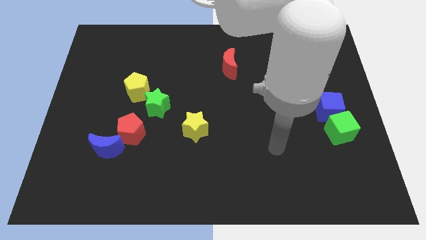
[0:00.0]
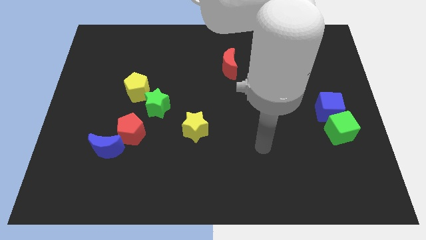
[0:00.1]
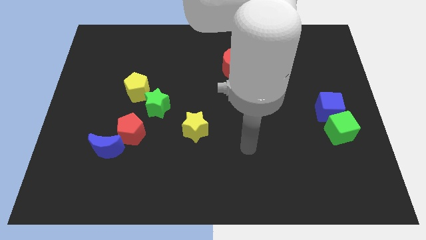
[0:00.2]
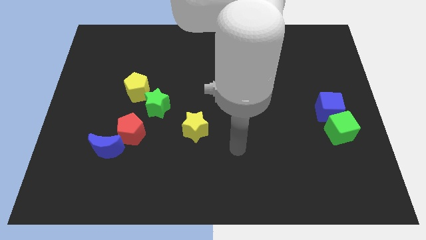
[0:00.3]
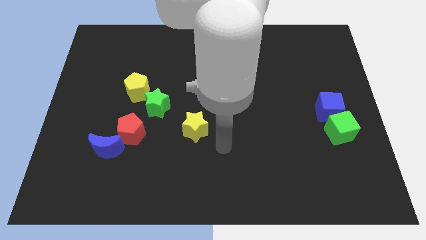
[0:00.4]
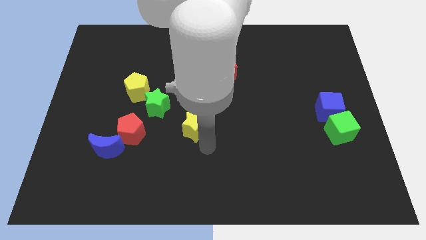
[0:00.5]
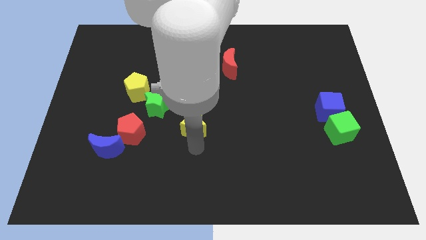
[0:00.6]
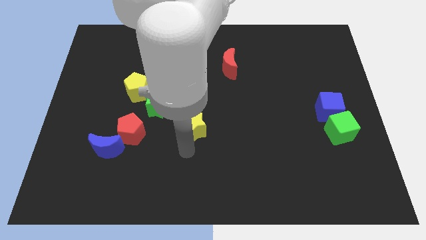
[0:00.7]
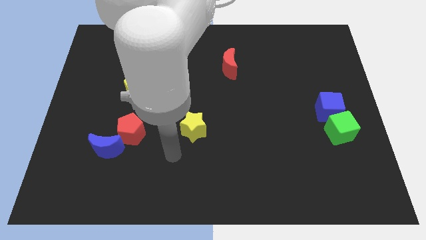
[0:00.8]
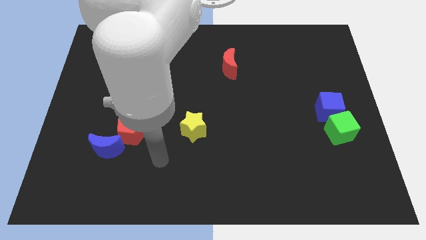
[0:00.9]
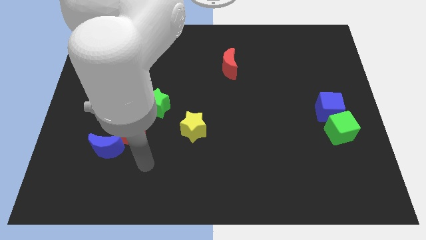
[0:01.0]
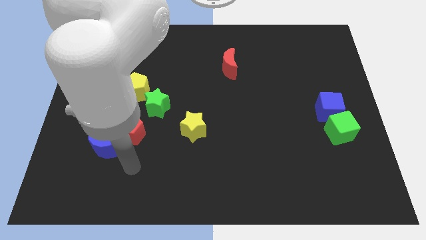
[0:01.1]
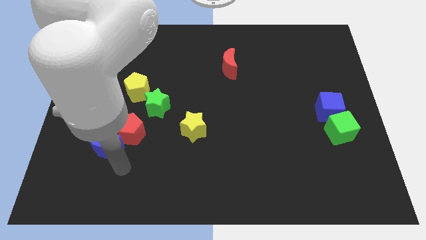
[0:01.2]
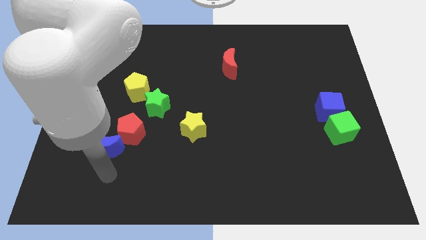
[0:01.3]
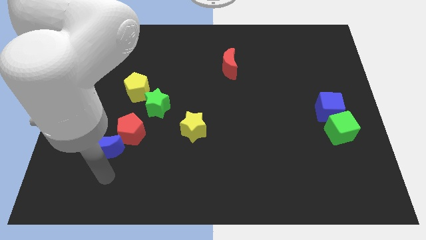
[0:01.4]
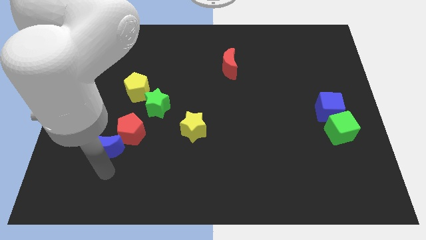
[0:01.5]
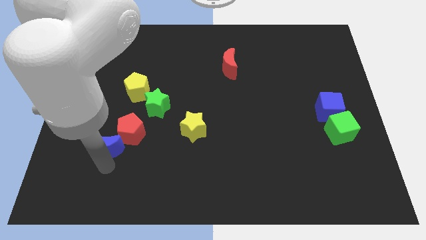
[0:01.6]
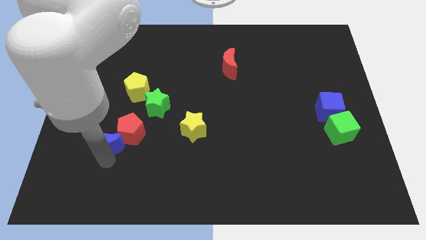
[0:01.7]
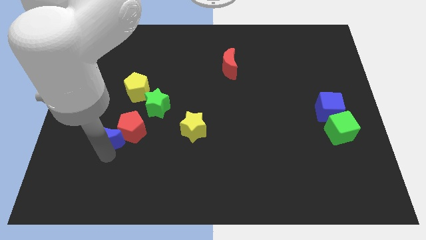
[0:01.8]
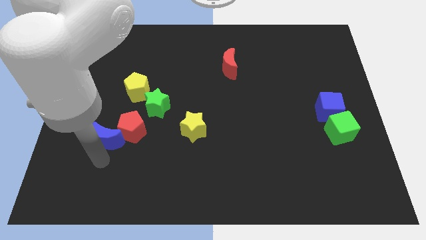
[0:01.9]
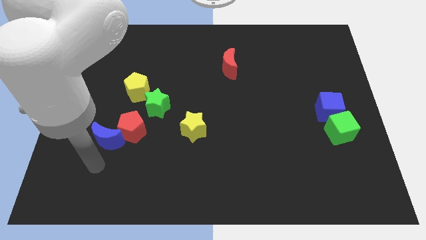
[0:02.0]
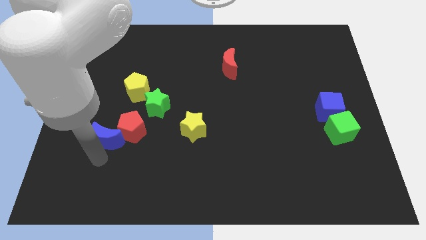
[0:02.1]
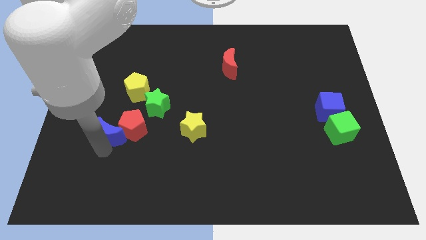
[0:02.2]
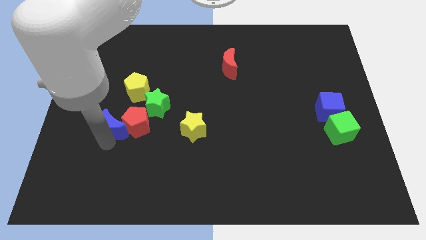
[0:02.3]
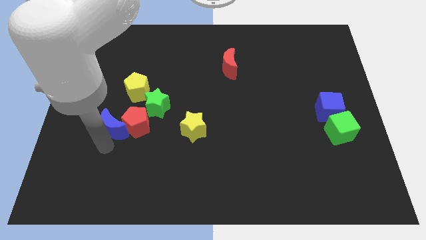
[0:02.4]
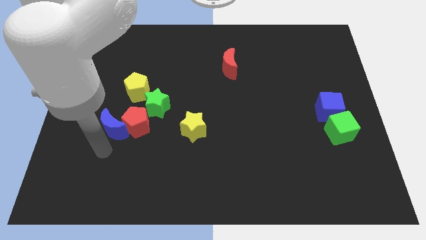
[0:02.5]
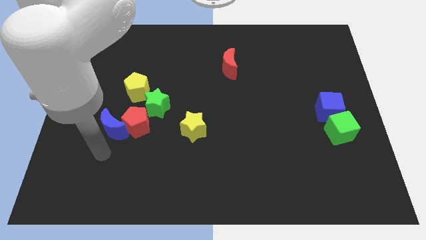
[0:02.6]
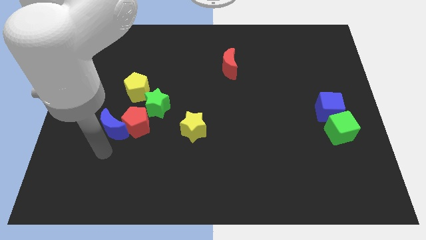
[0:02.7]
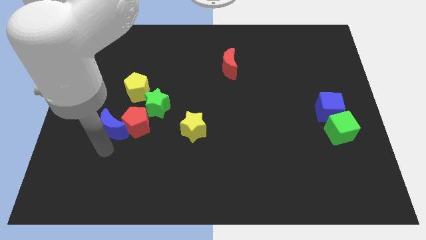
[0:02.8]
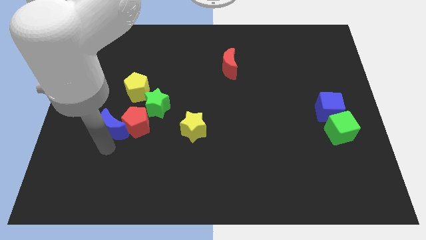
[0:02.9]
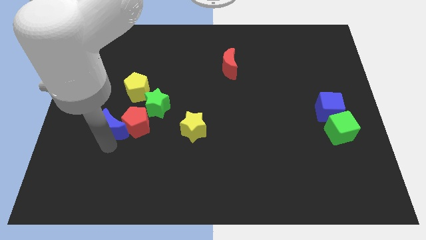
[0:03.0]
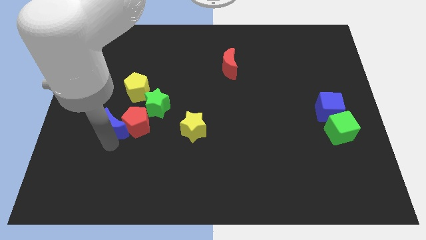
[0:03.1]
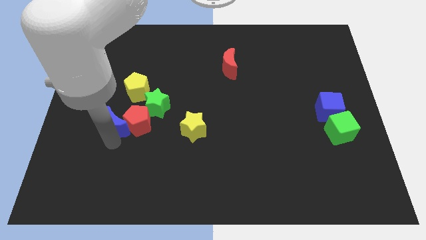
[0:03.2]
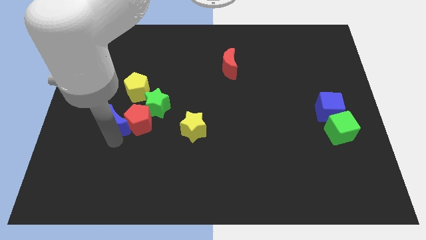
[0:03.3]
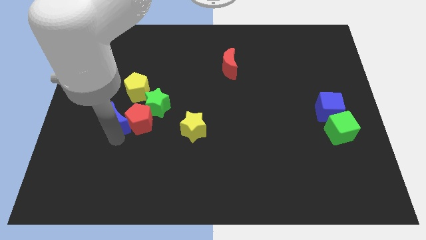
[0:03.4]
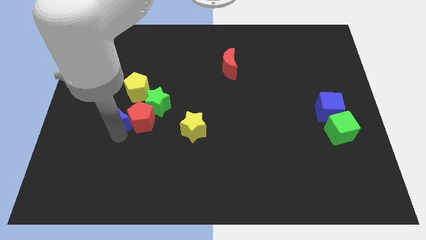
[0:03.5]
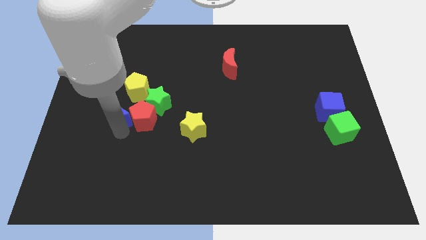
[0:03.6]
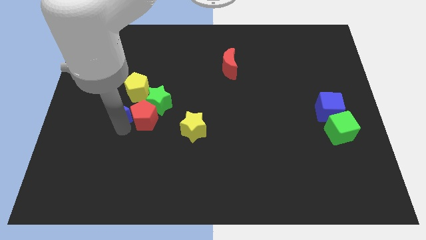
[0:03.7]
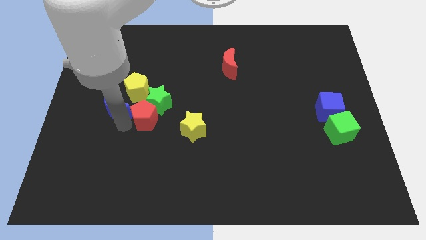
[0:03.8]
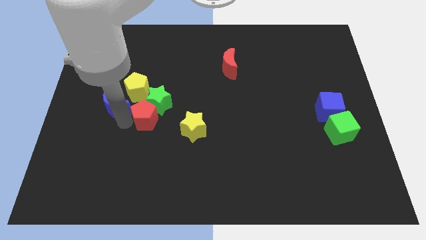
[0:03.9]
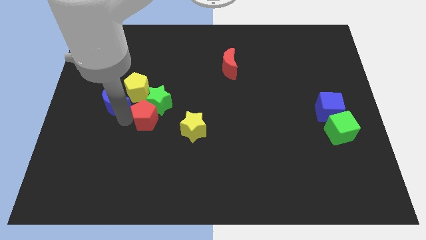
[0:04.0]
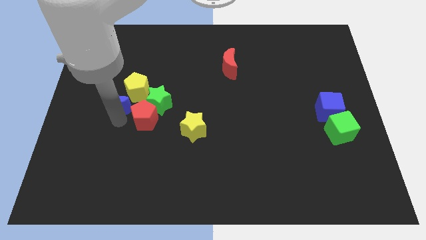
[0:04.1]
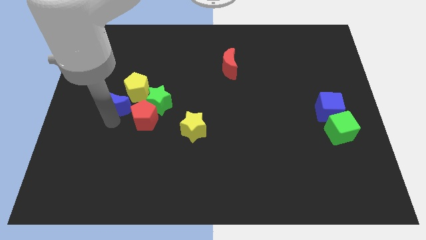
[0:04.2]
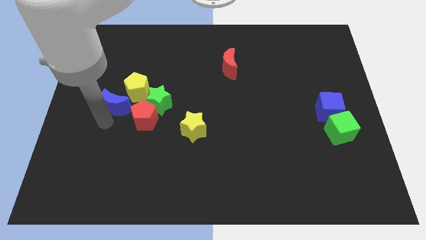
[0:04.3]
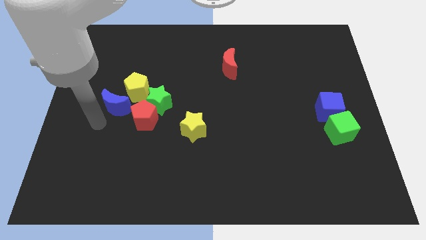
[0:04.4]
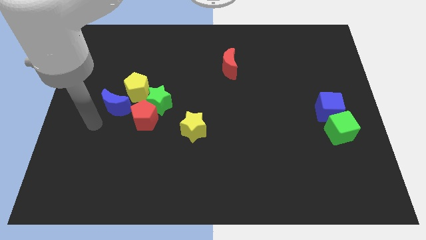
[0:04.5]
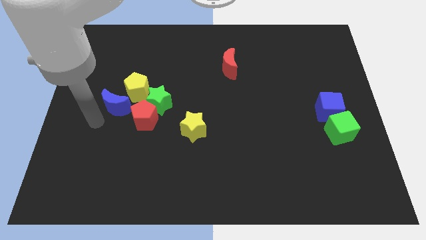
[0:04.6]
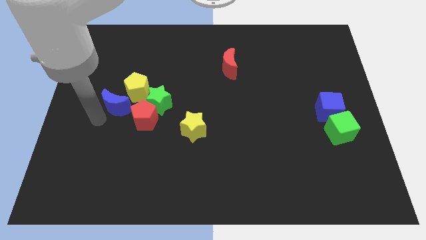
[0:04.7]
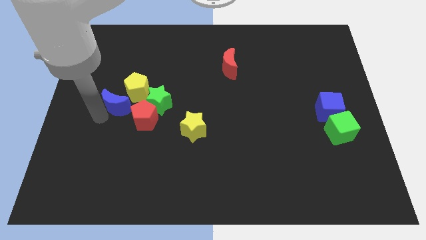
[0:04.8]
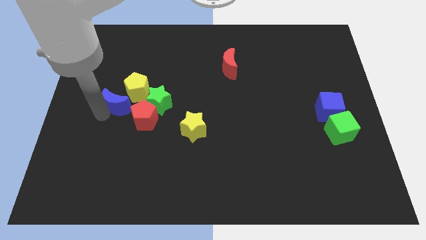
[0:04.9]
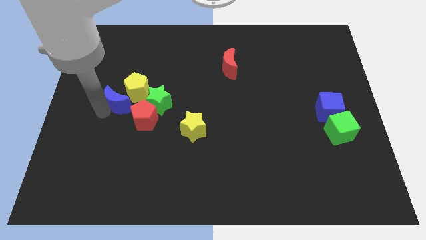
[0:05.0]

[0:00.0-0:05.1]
put the blue moon towards the yellow pentagon

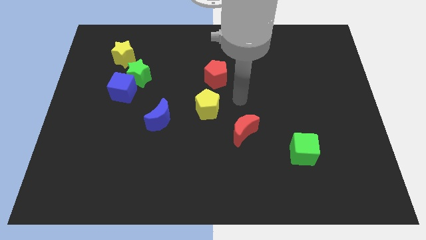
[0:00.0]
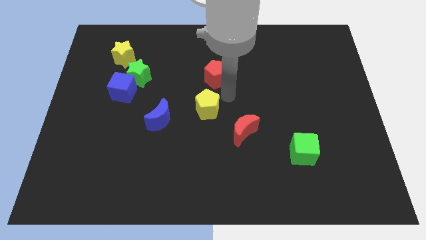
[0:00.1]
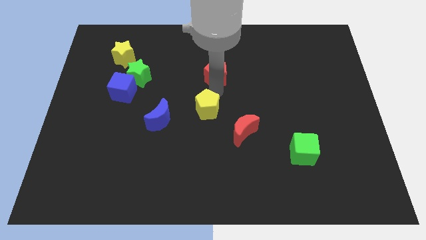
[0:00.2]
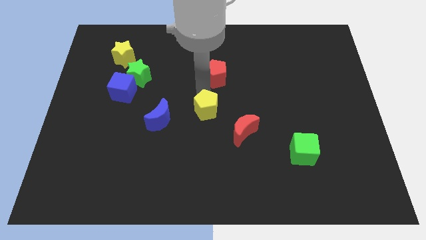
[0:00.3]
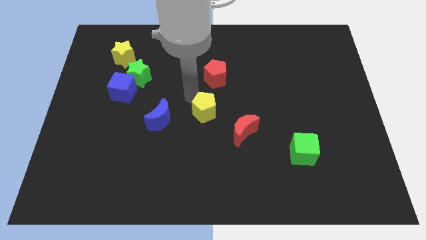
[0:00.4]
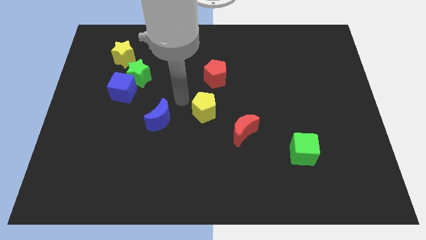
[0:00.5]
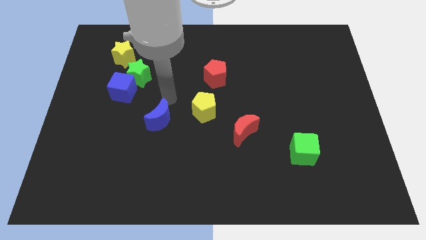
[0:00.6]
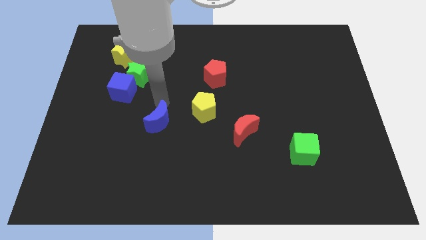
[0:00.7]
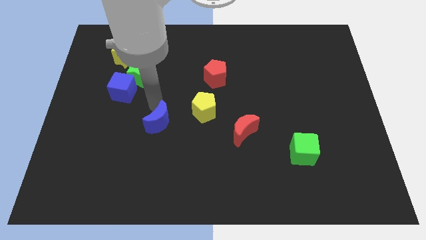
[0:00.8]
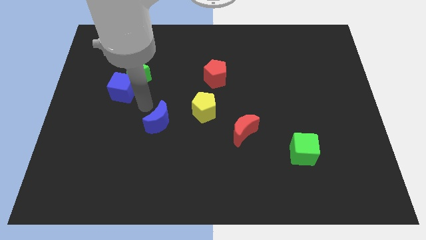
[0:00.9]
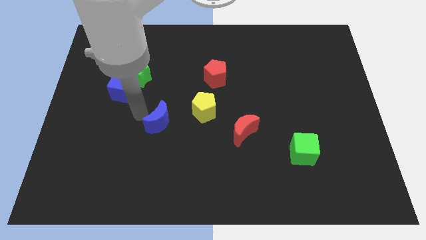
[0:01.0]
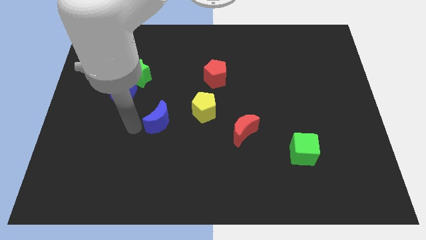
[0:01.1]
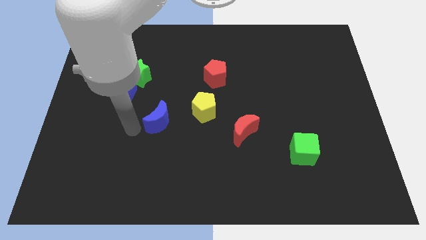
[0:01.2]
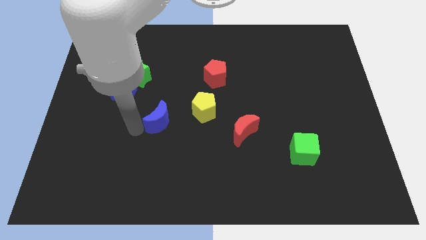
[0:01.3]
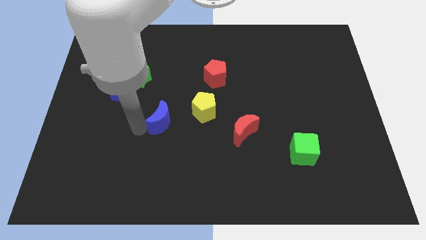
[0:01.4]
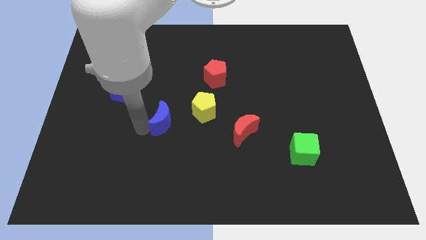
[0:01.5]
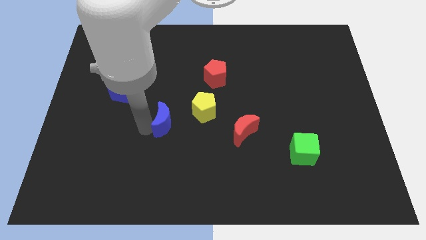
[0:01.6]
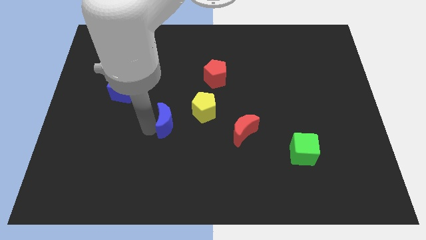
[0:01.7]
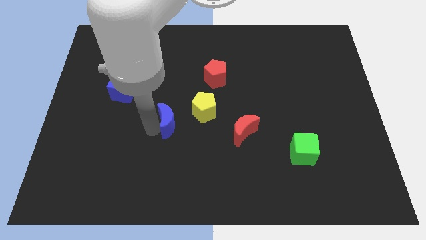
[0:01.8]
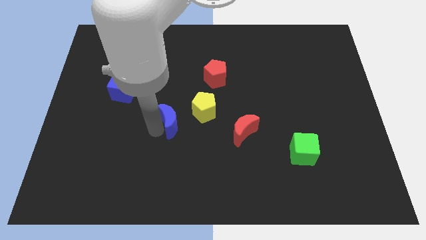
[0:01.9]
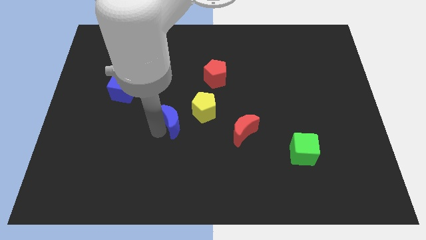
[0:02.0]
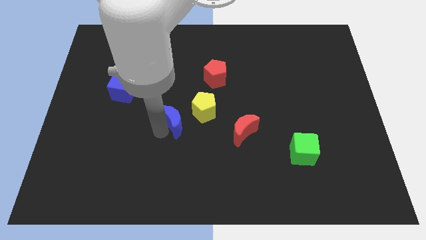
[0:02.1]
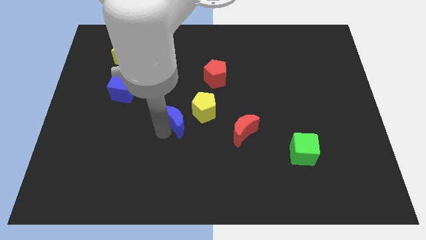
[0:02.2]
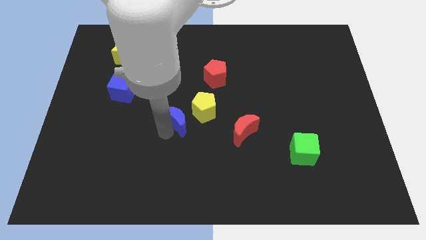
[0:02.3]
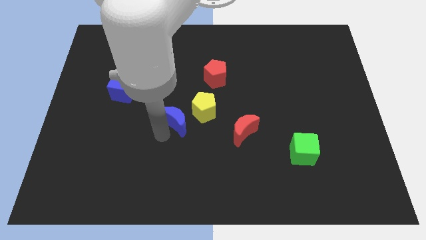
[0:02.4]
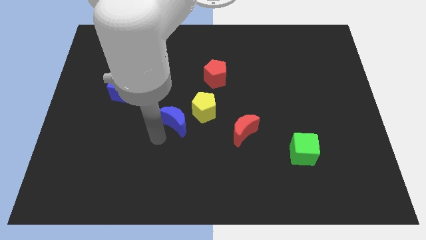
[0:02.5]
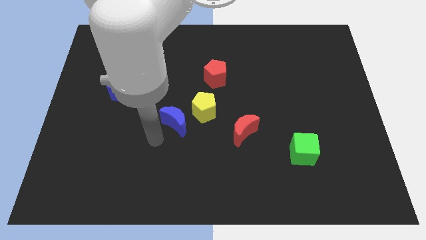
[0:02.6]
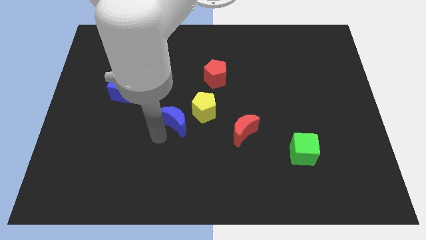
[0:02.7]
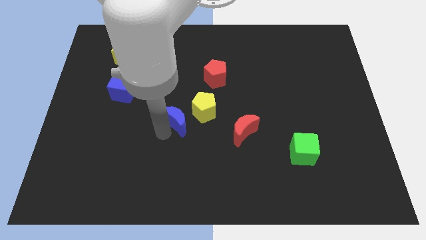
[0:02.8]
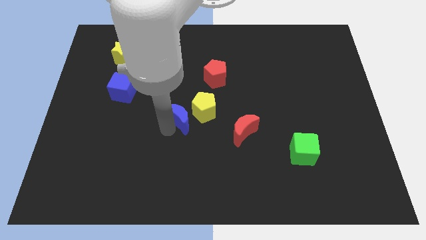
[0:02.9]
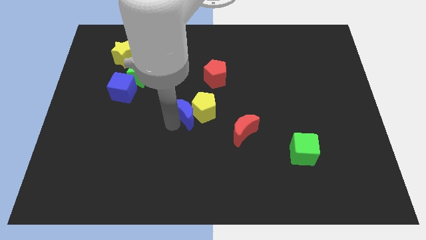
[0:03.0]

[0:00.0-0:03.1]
put the blue moon to the yellow pentagon
